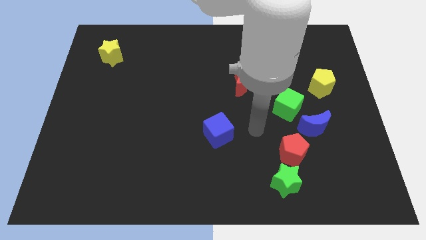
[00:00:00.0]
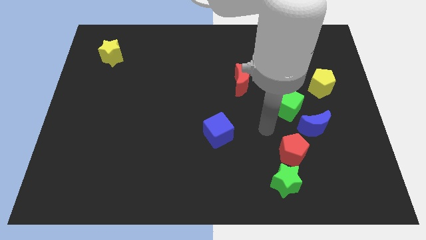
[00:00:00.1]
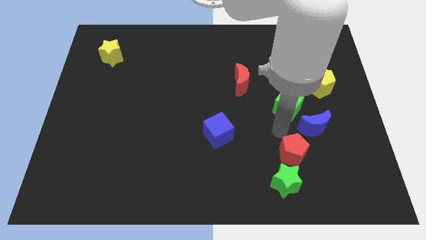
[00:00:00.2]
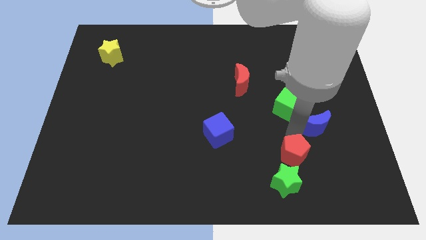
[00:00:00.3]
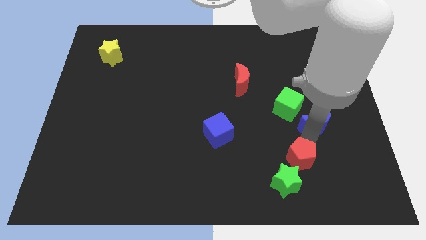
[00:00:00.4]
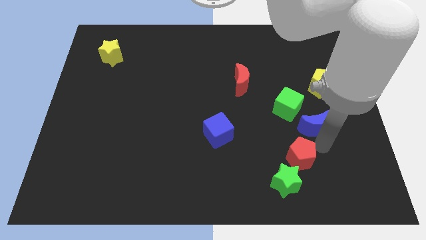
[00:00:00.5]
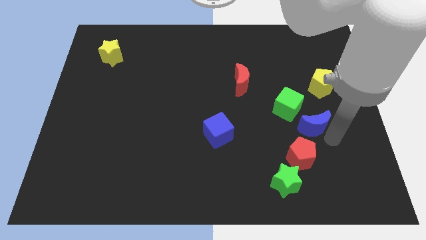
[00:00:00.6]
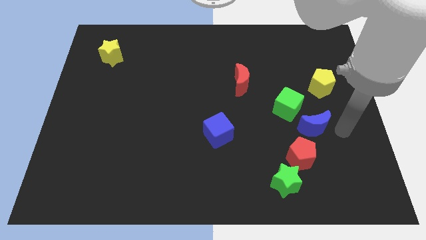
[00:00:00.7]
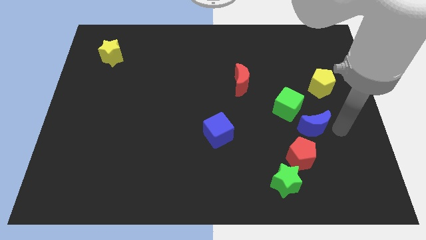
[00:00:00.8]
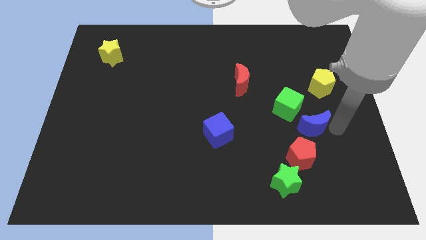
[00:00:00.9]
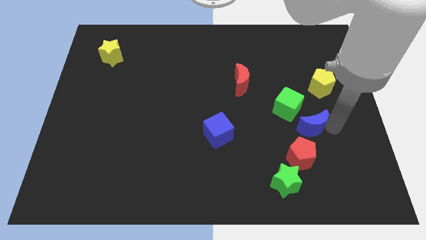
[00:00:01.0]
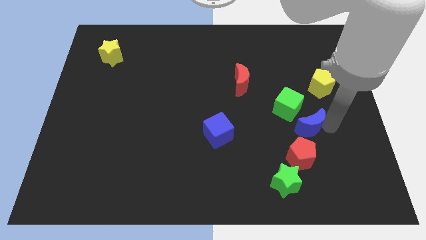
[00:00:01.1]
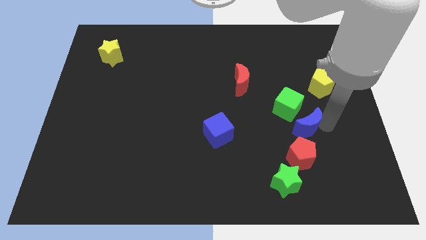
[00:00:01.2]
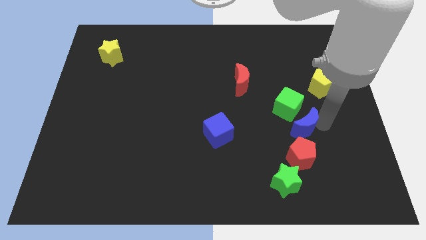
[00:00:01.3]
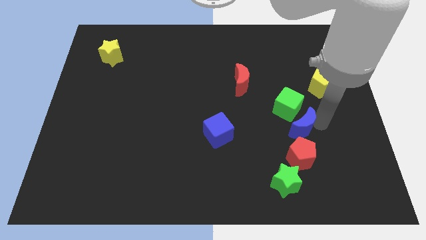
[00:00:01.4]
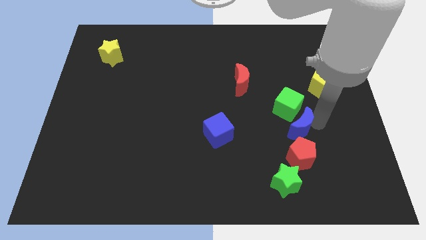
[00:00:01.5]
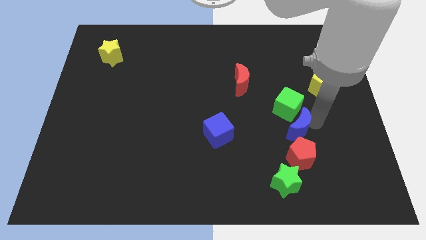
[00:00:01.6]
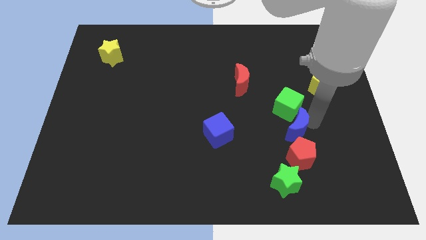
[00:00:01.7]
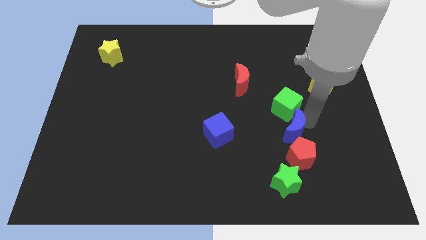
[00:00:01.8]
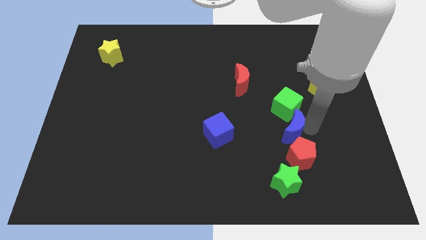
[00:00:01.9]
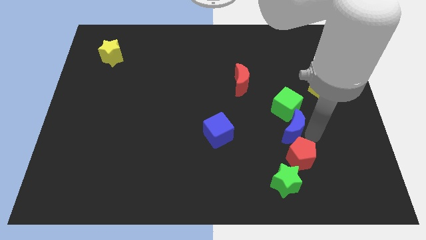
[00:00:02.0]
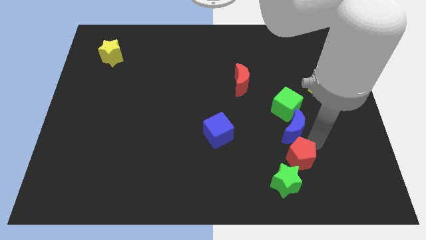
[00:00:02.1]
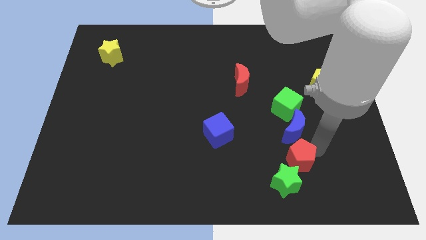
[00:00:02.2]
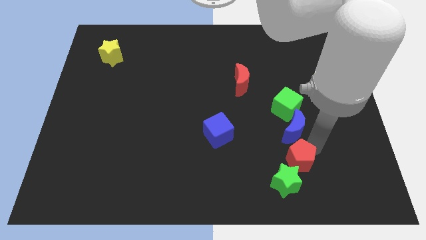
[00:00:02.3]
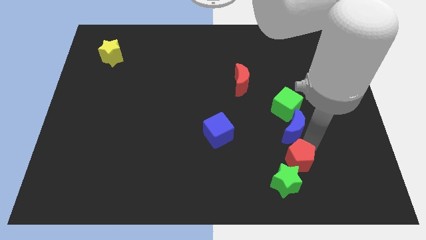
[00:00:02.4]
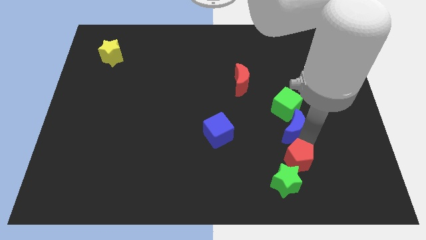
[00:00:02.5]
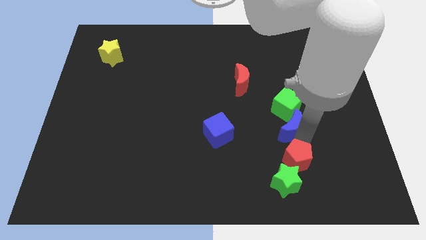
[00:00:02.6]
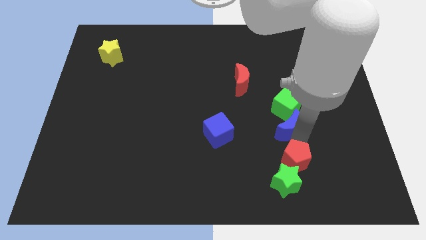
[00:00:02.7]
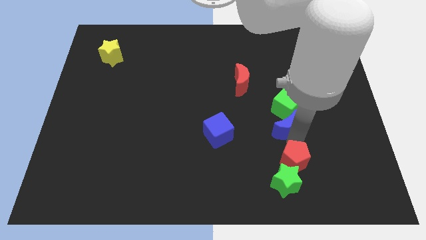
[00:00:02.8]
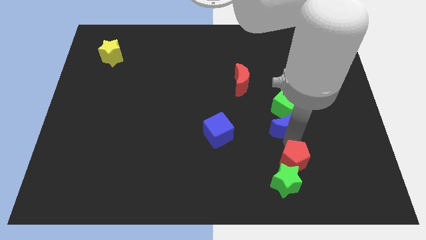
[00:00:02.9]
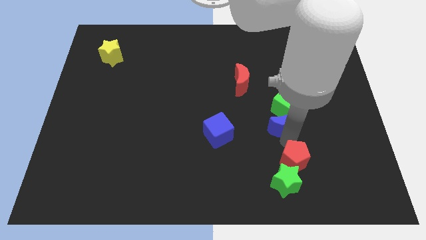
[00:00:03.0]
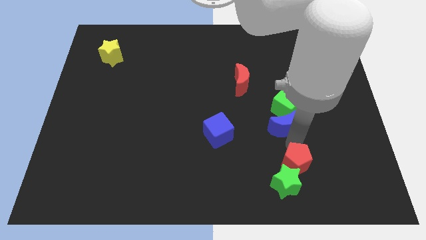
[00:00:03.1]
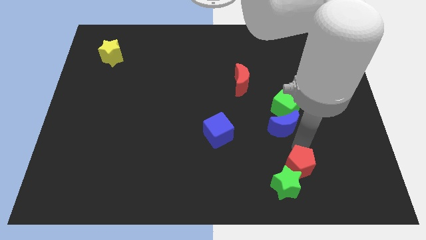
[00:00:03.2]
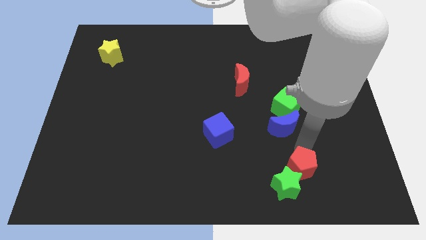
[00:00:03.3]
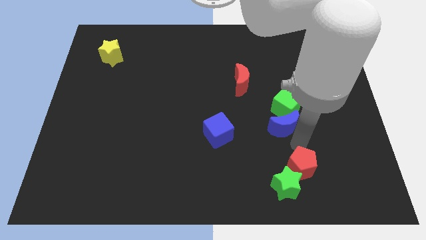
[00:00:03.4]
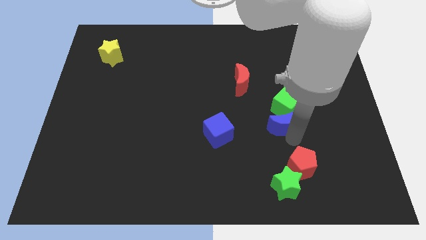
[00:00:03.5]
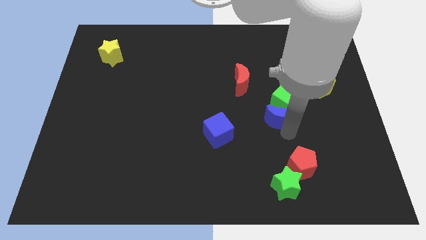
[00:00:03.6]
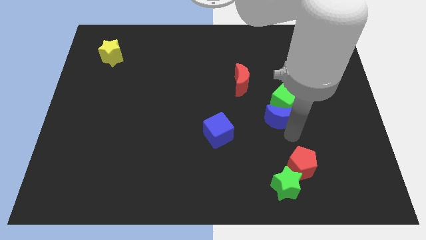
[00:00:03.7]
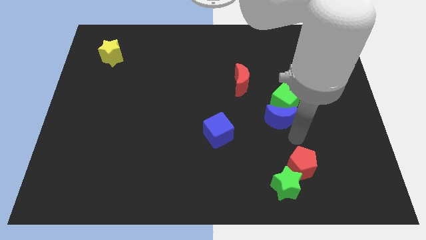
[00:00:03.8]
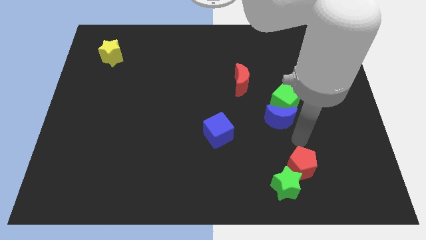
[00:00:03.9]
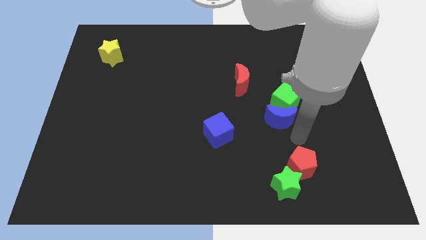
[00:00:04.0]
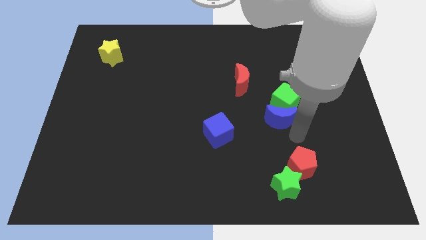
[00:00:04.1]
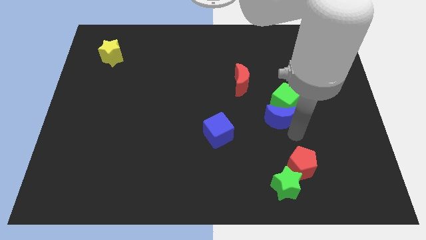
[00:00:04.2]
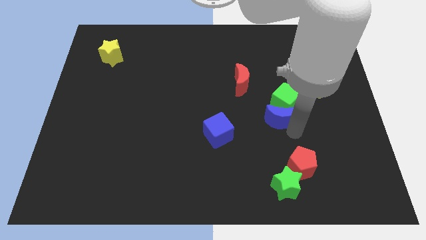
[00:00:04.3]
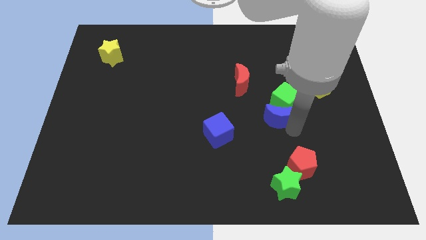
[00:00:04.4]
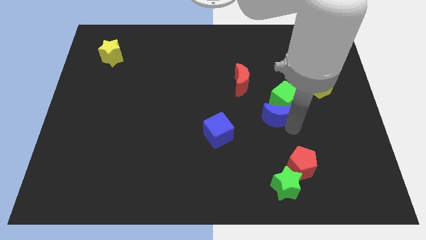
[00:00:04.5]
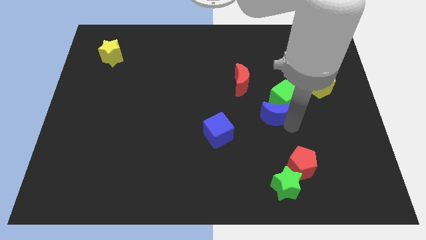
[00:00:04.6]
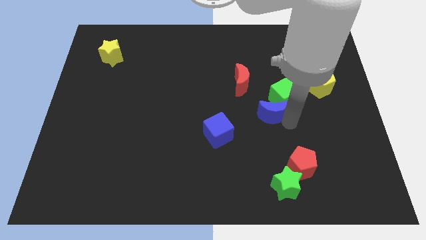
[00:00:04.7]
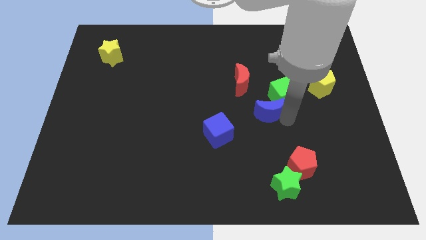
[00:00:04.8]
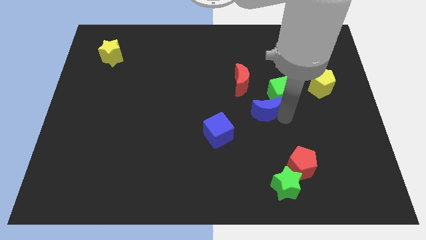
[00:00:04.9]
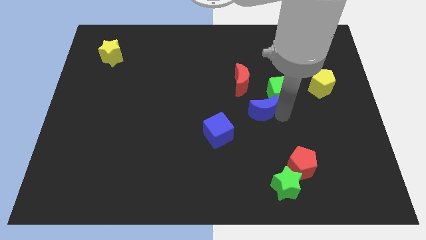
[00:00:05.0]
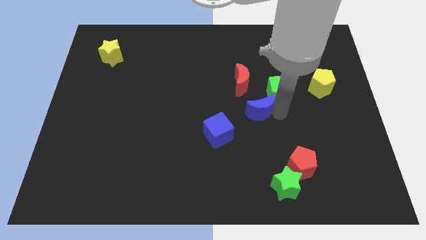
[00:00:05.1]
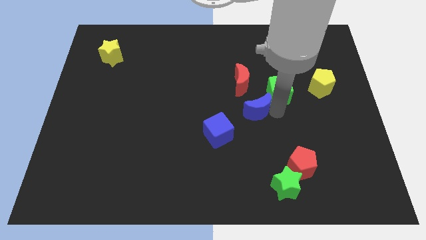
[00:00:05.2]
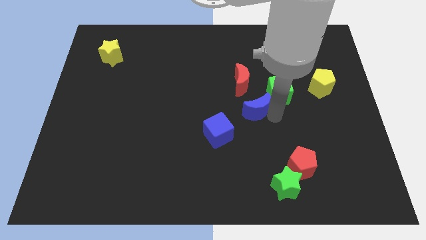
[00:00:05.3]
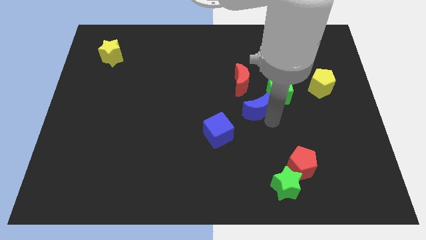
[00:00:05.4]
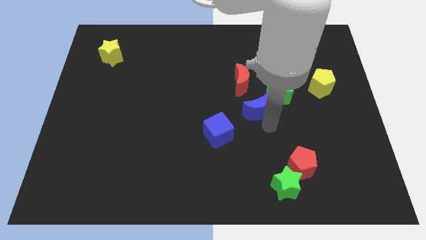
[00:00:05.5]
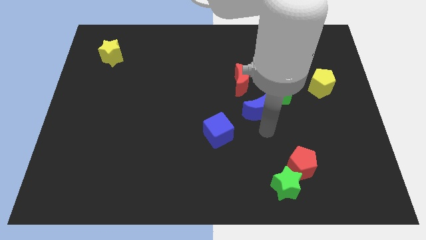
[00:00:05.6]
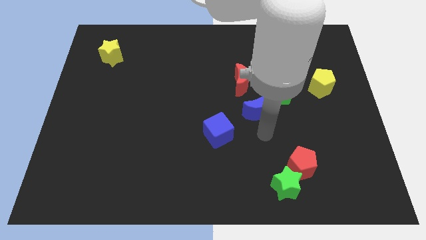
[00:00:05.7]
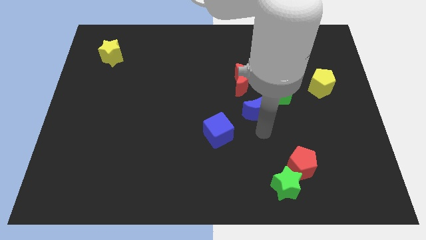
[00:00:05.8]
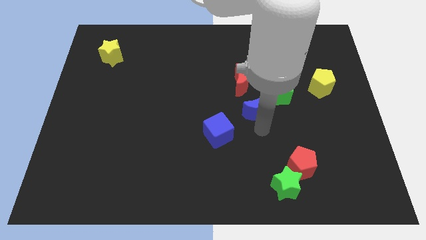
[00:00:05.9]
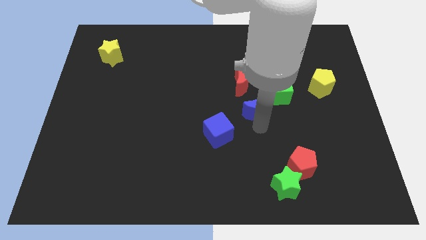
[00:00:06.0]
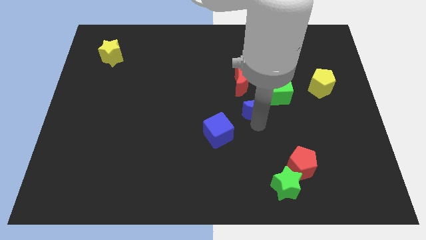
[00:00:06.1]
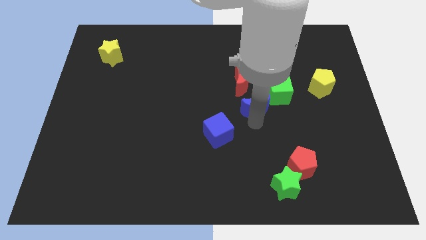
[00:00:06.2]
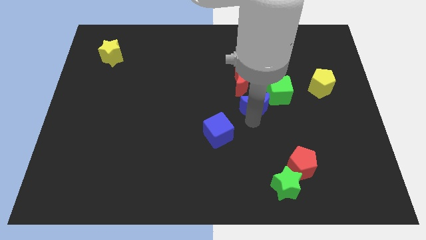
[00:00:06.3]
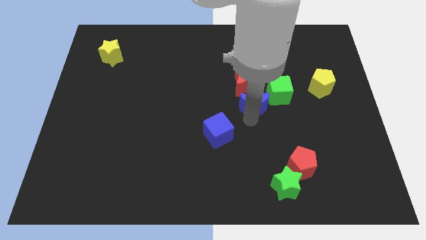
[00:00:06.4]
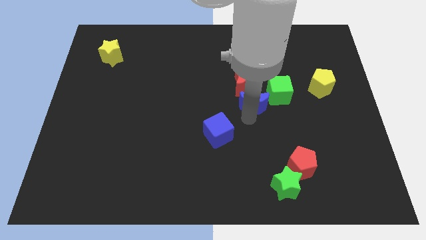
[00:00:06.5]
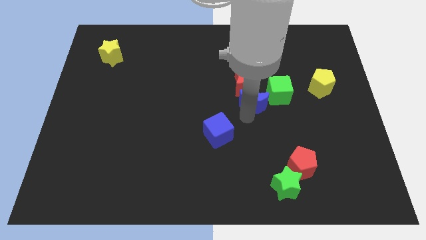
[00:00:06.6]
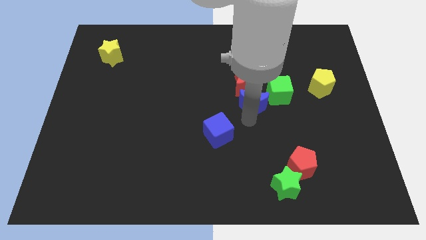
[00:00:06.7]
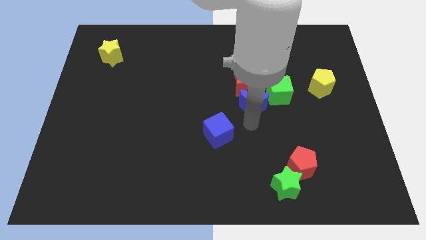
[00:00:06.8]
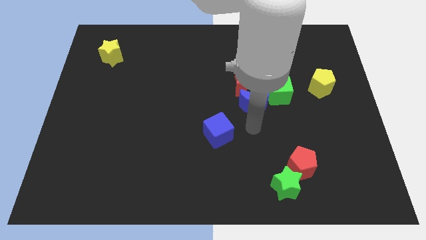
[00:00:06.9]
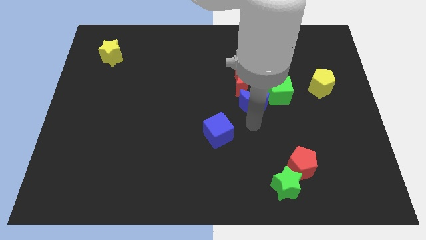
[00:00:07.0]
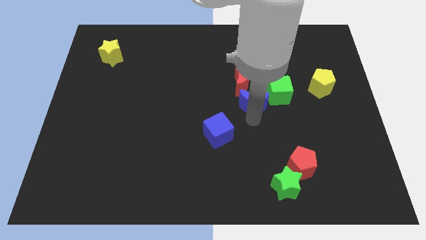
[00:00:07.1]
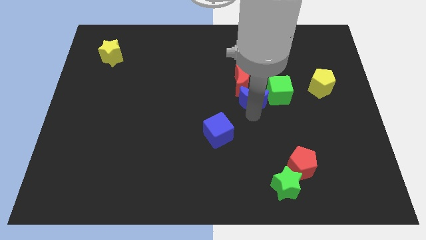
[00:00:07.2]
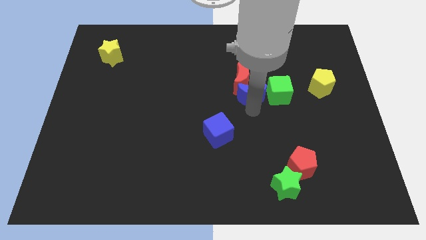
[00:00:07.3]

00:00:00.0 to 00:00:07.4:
push the blue moon close to the red moon

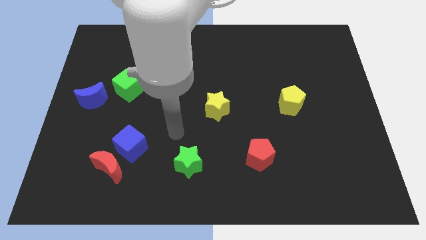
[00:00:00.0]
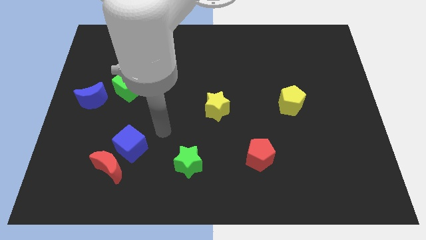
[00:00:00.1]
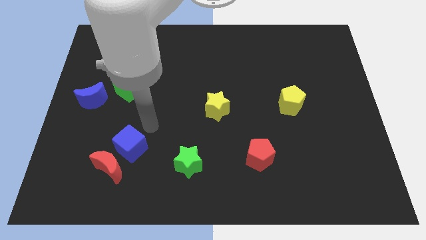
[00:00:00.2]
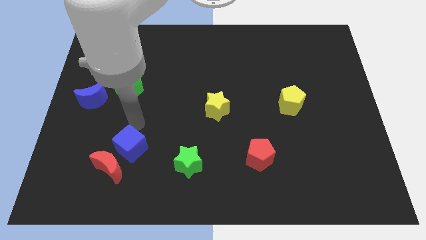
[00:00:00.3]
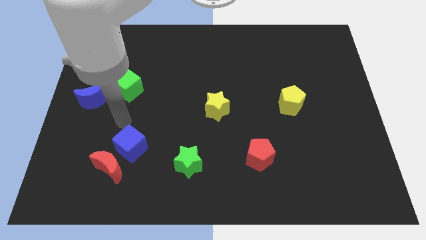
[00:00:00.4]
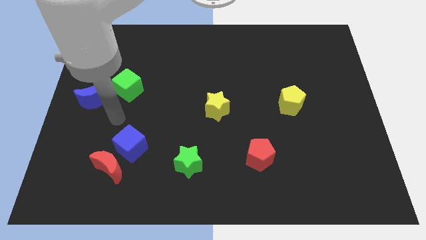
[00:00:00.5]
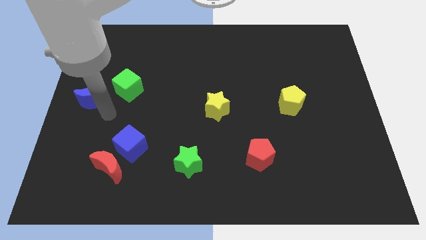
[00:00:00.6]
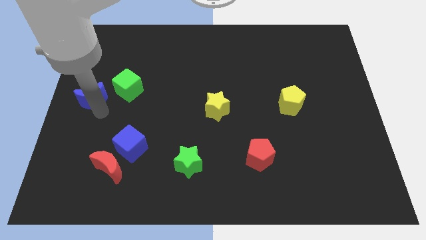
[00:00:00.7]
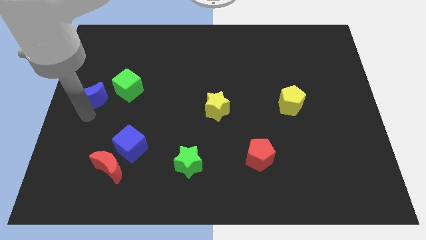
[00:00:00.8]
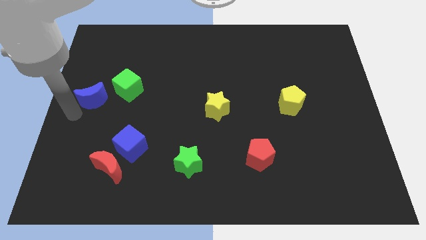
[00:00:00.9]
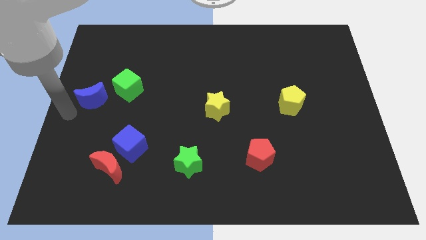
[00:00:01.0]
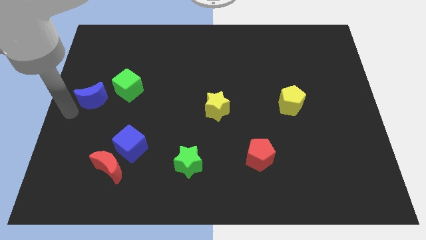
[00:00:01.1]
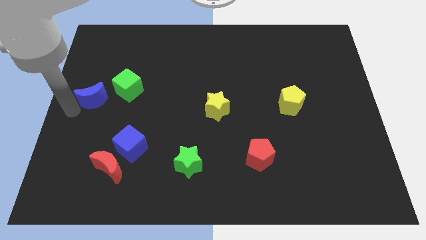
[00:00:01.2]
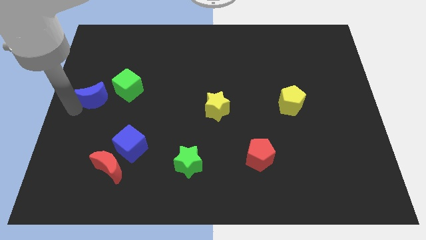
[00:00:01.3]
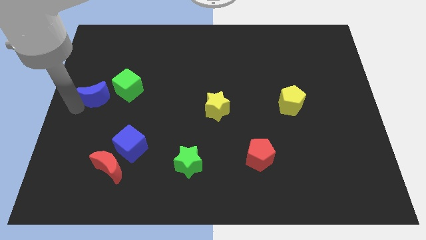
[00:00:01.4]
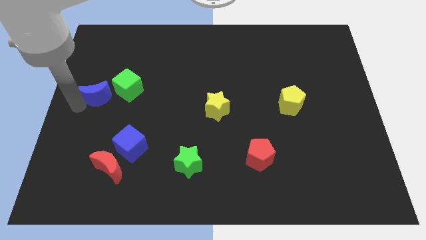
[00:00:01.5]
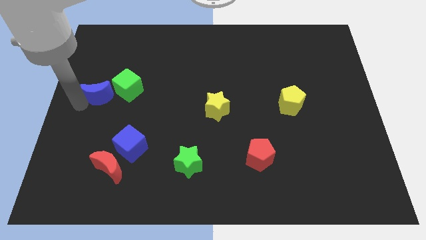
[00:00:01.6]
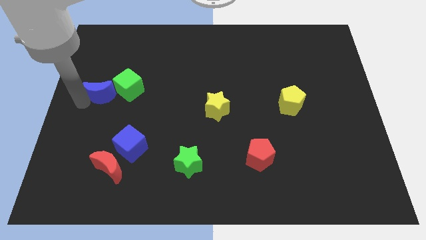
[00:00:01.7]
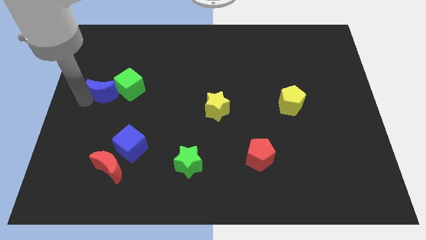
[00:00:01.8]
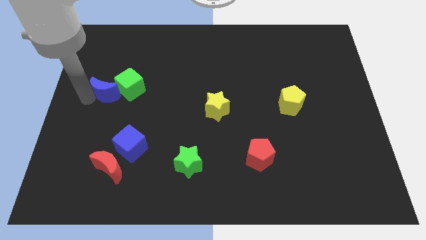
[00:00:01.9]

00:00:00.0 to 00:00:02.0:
move the blue moon towards the green cube
